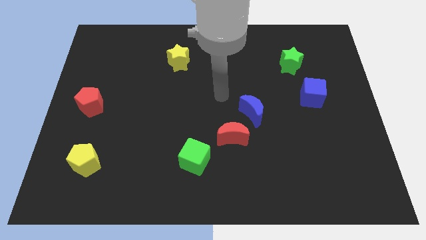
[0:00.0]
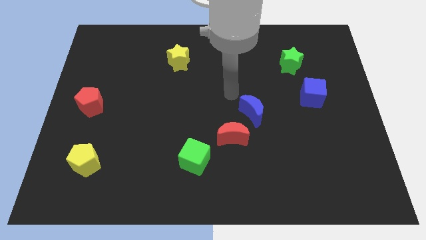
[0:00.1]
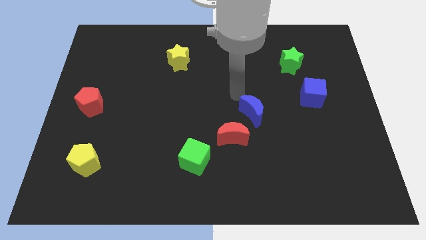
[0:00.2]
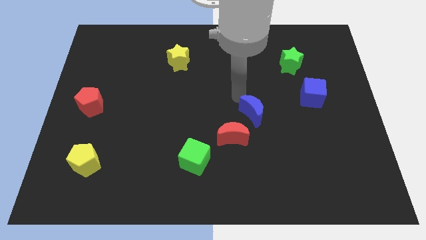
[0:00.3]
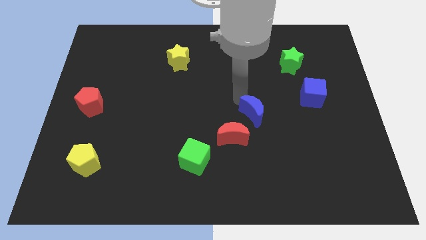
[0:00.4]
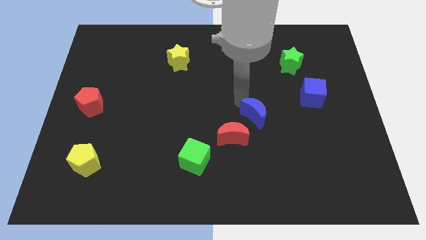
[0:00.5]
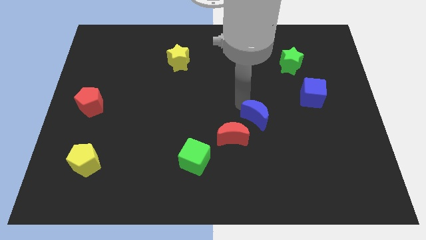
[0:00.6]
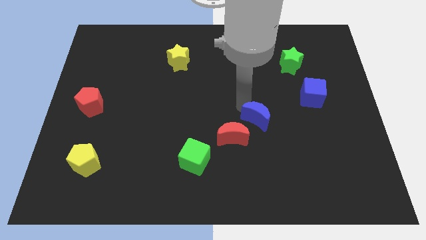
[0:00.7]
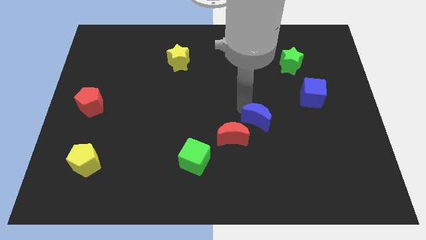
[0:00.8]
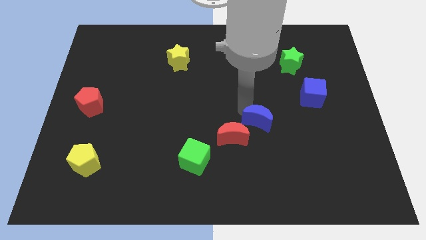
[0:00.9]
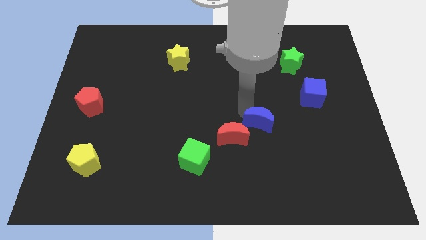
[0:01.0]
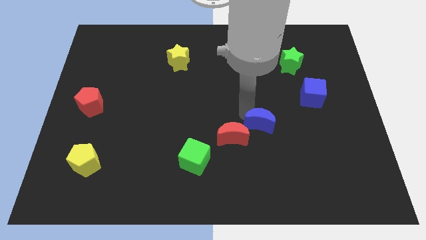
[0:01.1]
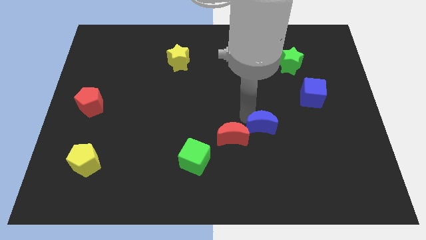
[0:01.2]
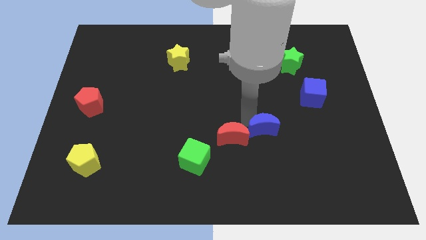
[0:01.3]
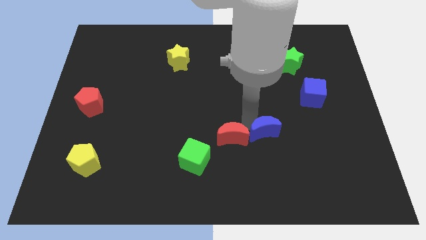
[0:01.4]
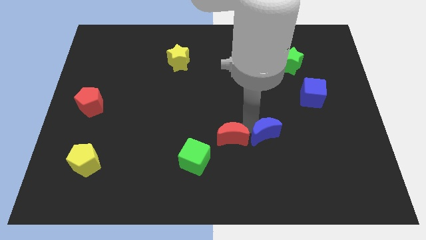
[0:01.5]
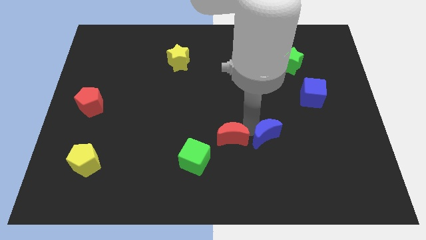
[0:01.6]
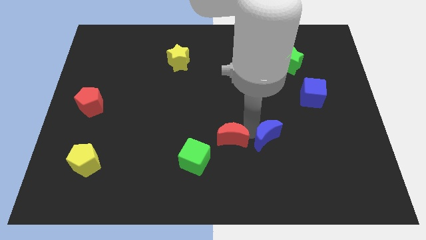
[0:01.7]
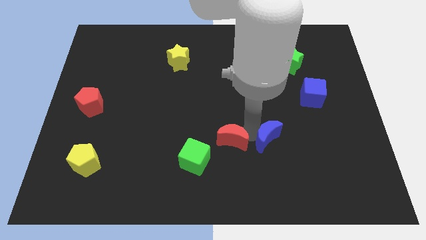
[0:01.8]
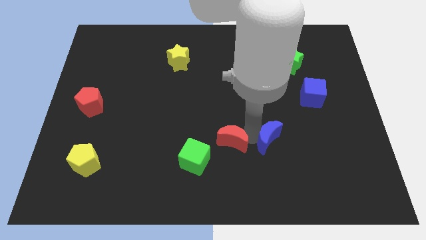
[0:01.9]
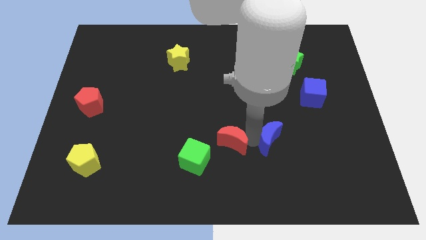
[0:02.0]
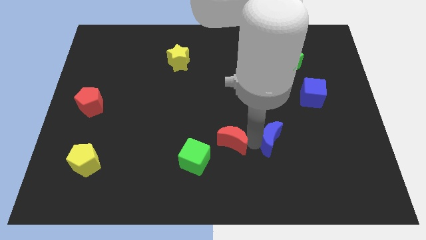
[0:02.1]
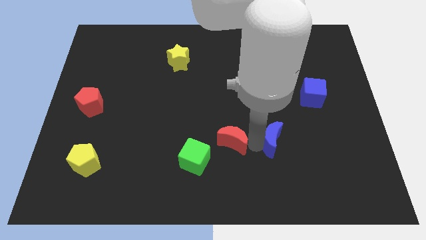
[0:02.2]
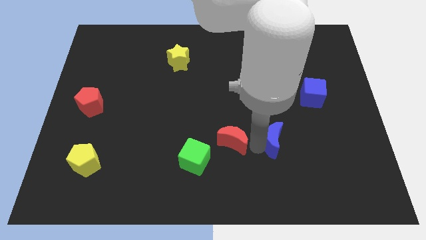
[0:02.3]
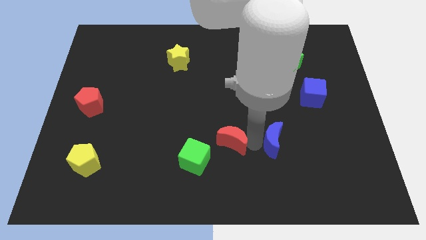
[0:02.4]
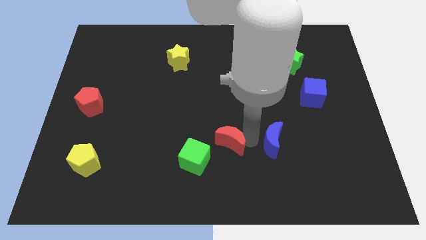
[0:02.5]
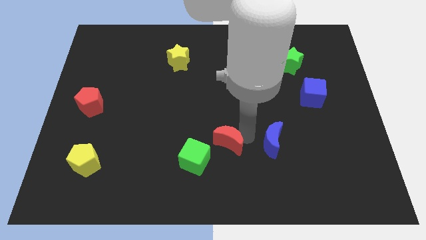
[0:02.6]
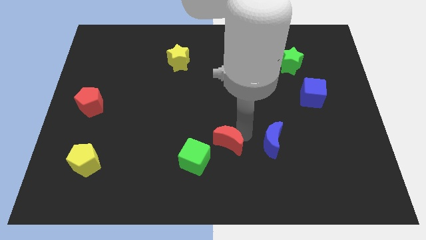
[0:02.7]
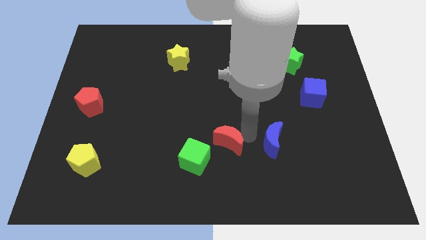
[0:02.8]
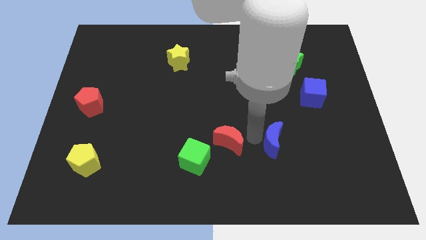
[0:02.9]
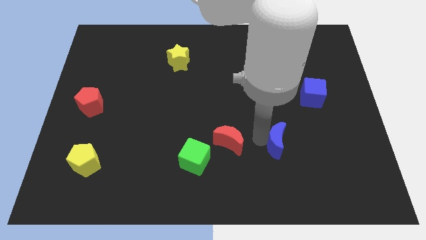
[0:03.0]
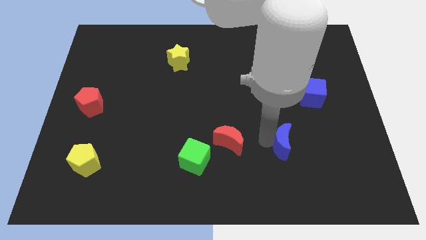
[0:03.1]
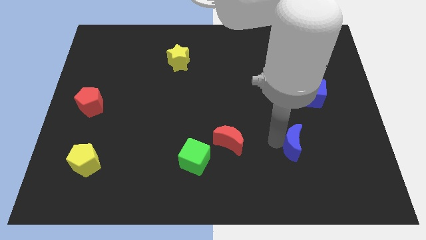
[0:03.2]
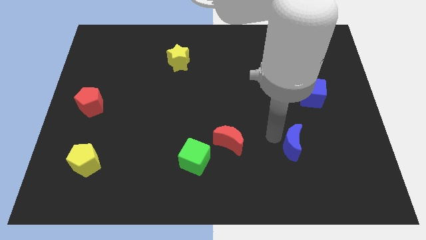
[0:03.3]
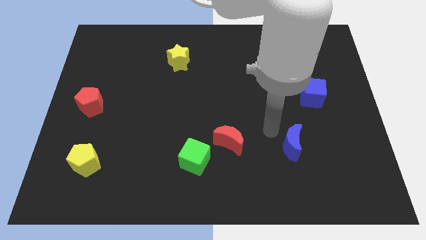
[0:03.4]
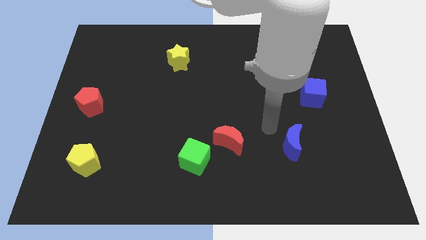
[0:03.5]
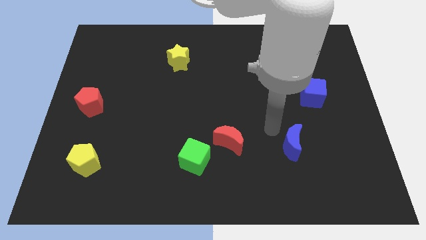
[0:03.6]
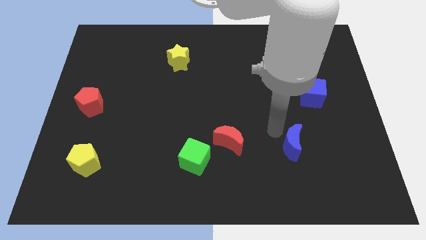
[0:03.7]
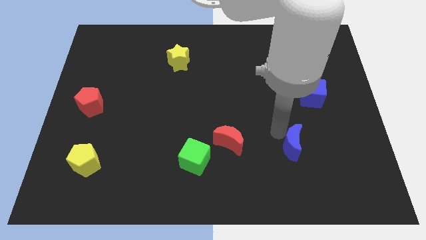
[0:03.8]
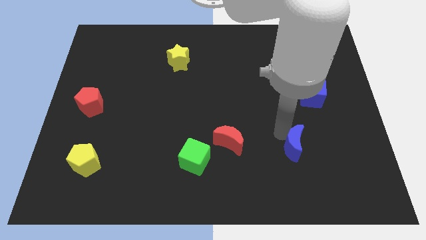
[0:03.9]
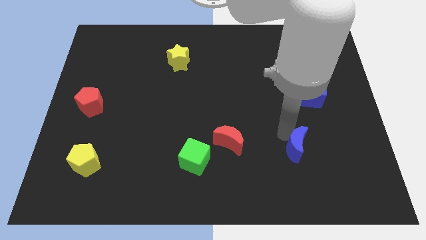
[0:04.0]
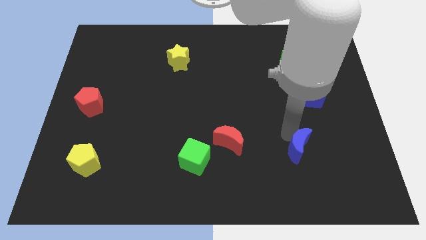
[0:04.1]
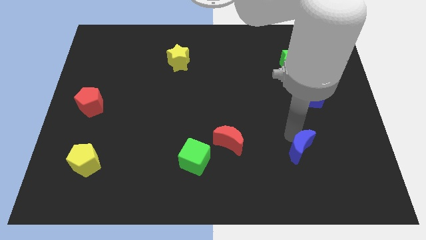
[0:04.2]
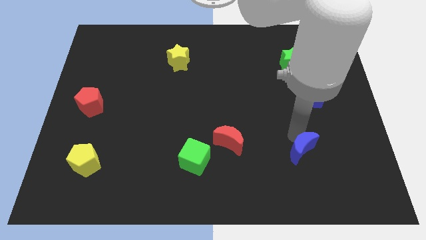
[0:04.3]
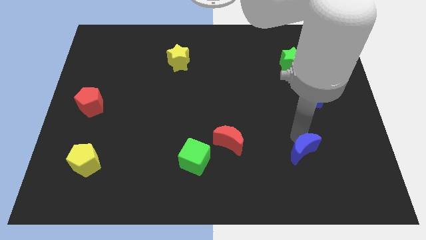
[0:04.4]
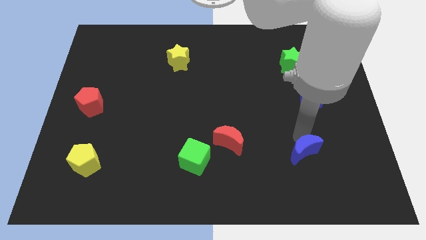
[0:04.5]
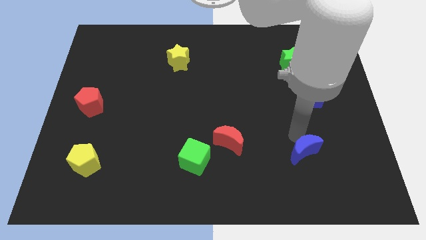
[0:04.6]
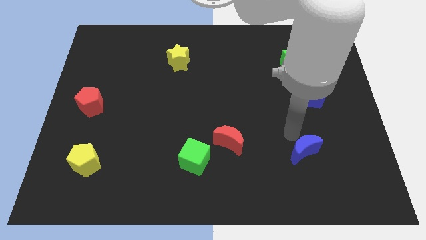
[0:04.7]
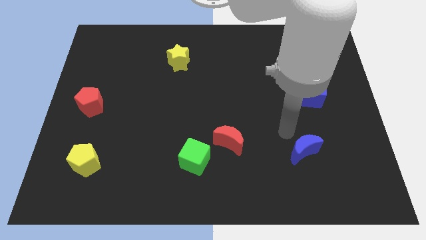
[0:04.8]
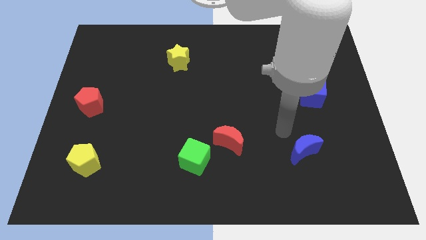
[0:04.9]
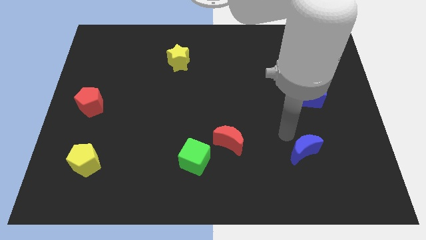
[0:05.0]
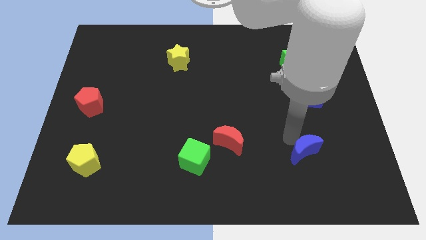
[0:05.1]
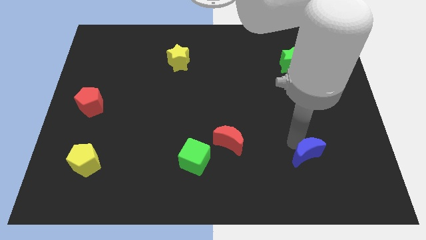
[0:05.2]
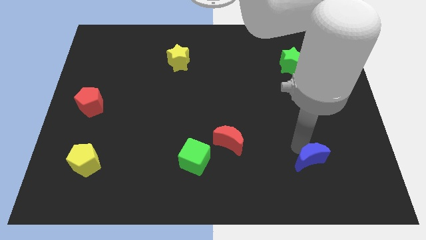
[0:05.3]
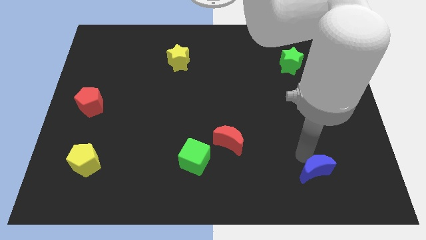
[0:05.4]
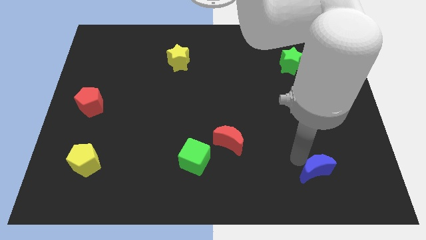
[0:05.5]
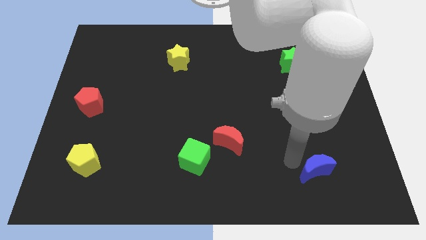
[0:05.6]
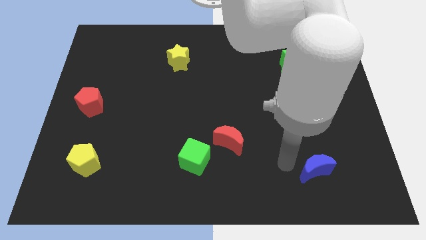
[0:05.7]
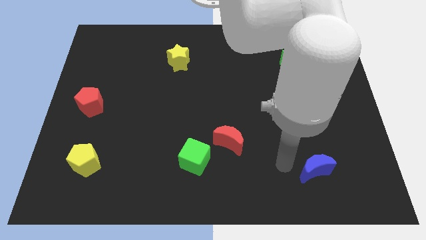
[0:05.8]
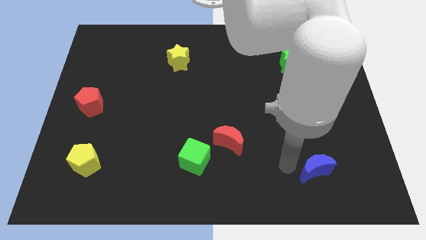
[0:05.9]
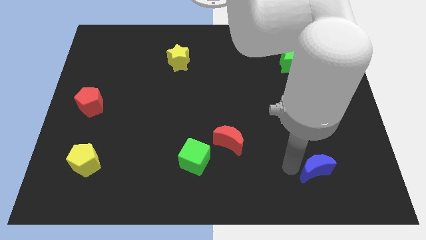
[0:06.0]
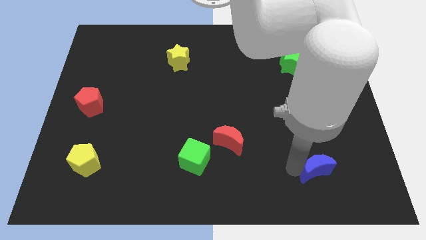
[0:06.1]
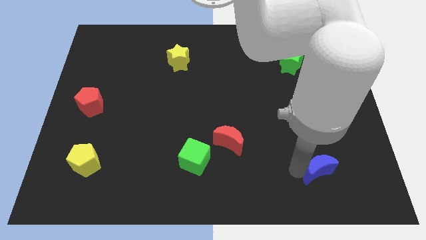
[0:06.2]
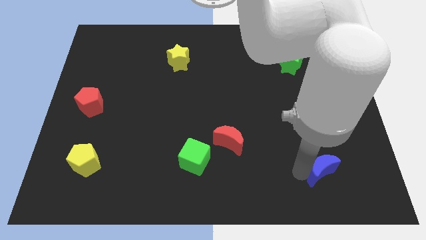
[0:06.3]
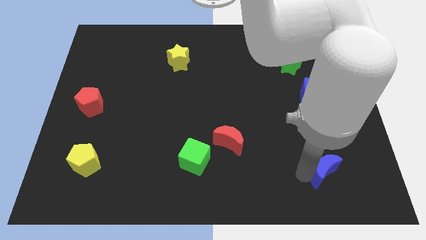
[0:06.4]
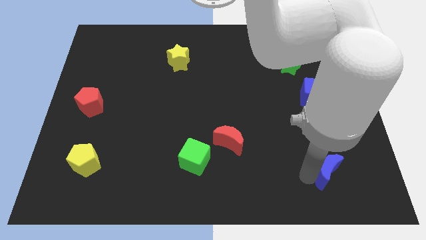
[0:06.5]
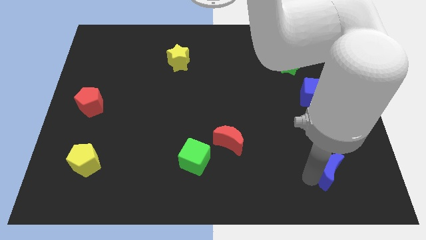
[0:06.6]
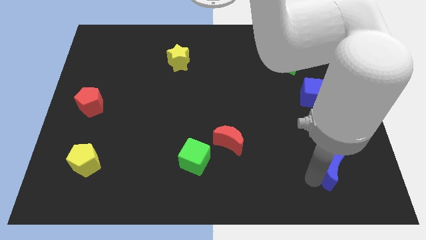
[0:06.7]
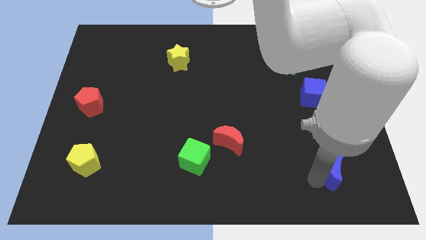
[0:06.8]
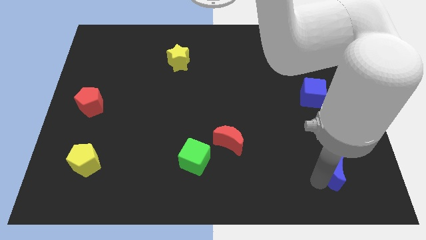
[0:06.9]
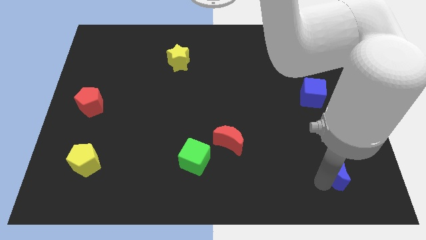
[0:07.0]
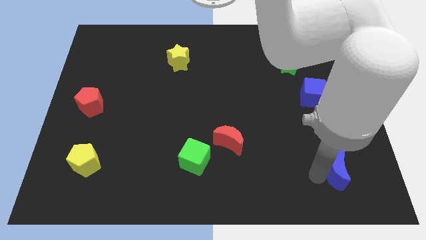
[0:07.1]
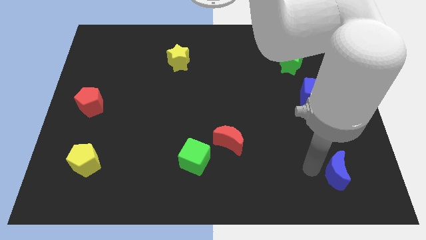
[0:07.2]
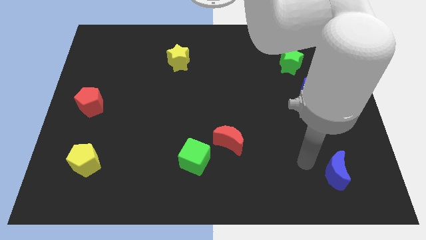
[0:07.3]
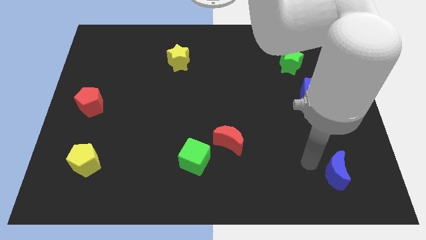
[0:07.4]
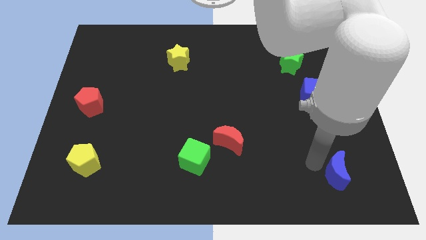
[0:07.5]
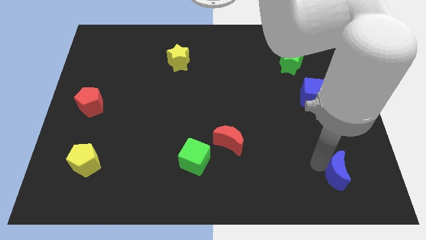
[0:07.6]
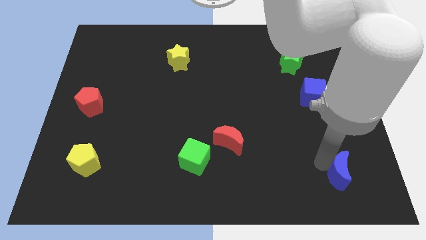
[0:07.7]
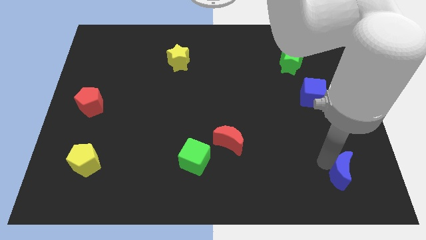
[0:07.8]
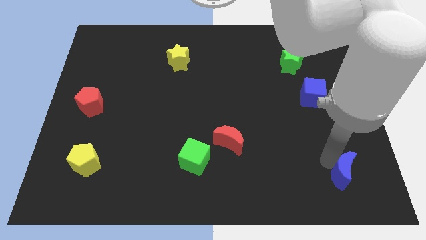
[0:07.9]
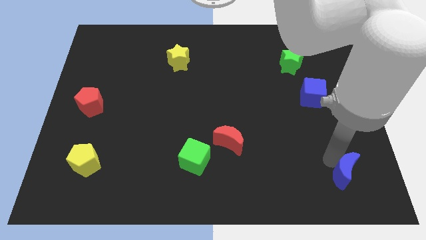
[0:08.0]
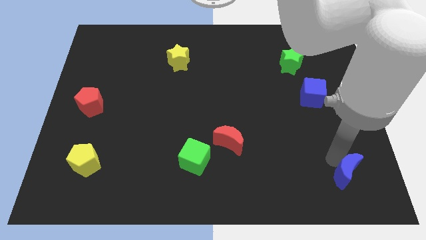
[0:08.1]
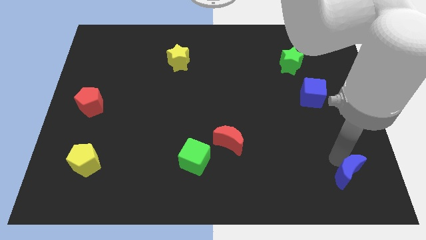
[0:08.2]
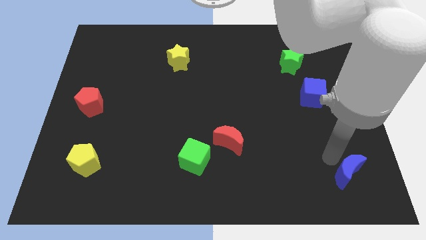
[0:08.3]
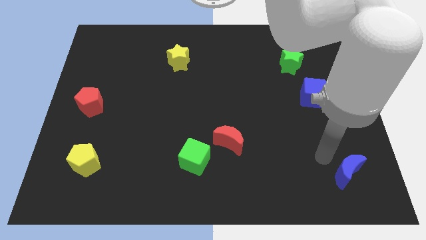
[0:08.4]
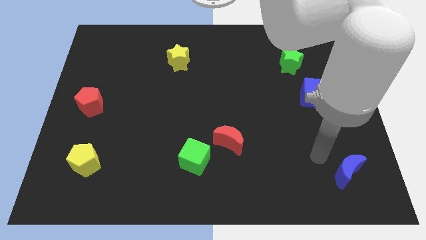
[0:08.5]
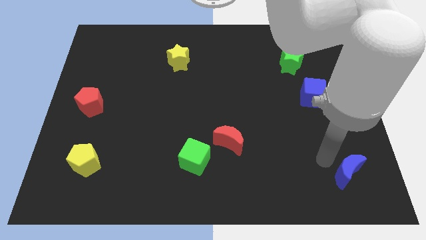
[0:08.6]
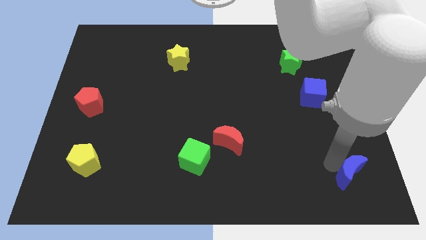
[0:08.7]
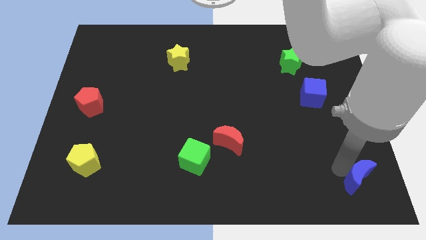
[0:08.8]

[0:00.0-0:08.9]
push the blue moon to the bottom right
